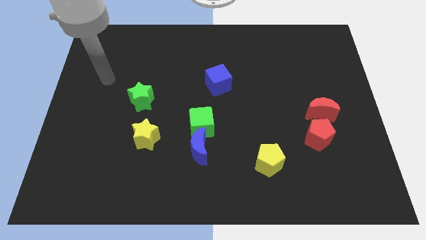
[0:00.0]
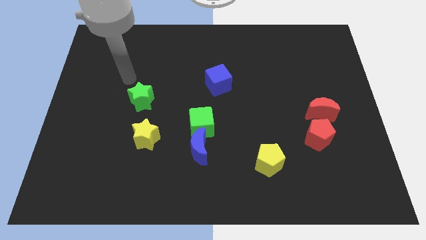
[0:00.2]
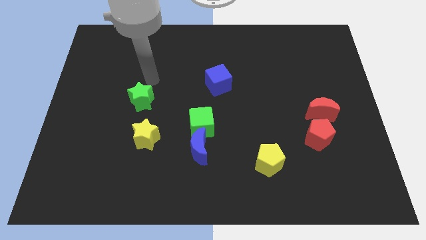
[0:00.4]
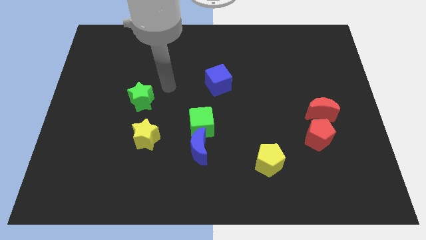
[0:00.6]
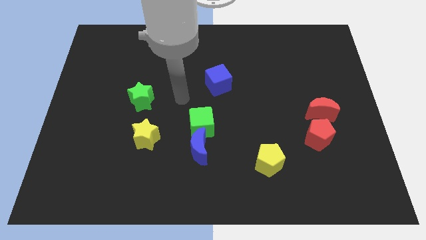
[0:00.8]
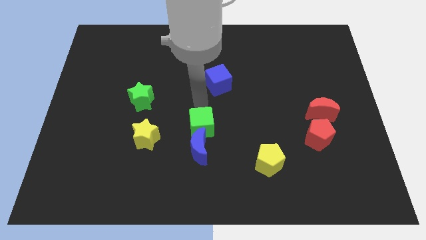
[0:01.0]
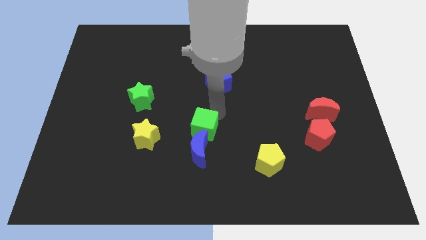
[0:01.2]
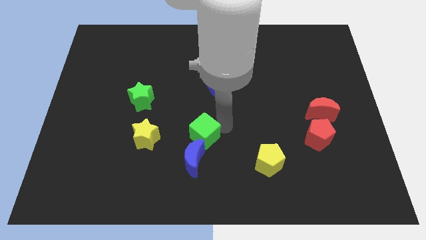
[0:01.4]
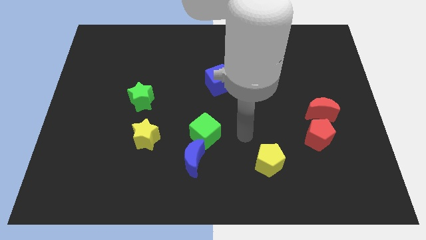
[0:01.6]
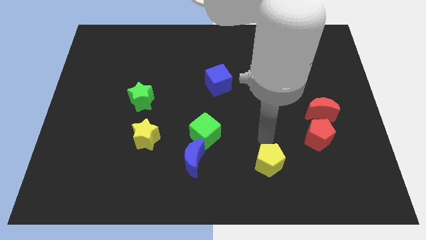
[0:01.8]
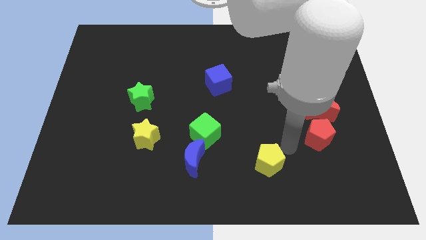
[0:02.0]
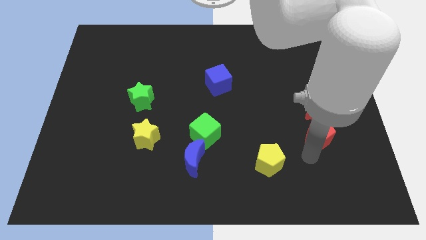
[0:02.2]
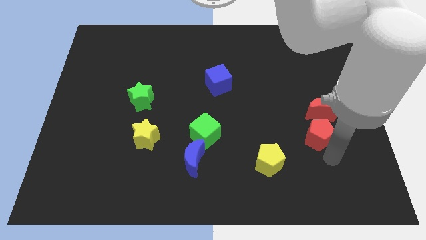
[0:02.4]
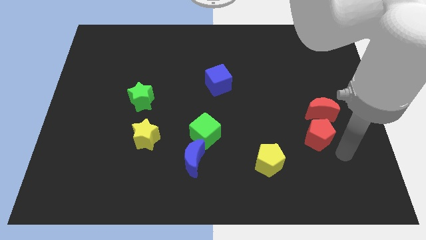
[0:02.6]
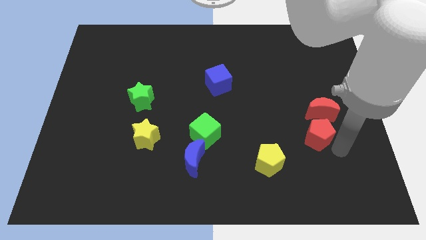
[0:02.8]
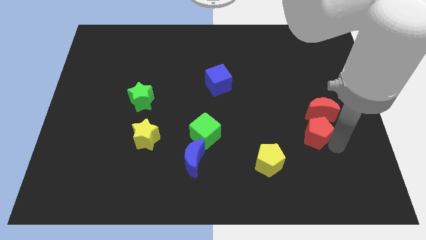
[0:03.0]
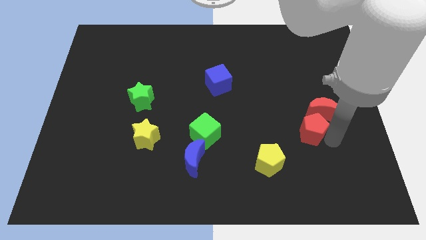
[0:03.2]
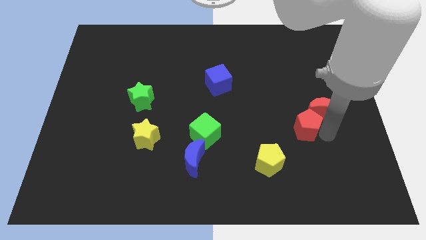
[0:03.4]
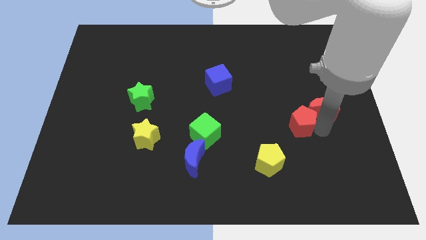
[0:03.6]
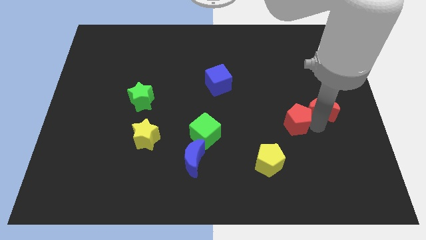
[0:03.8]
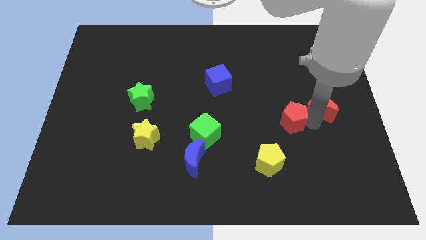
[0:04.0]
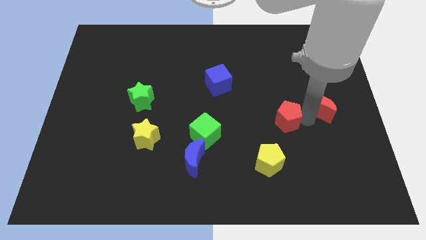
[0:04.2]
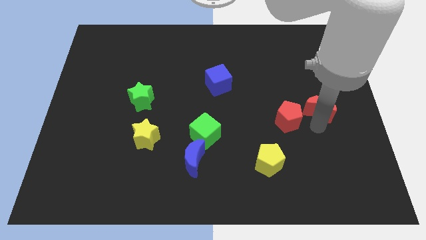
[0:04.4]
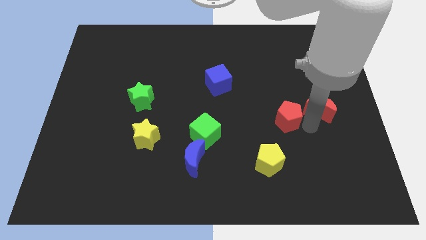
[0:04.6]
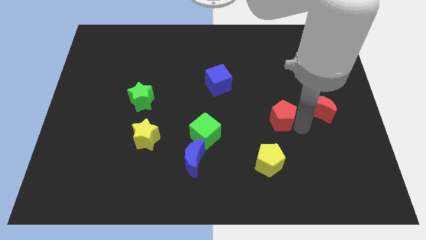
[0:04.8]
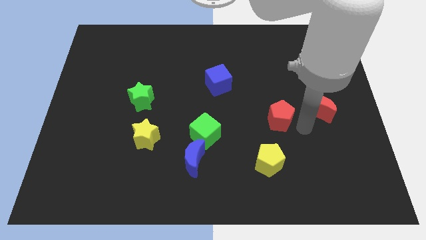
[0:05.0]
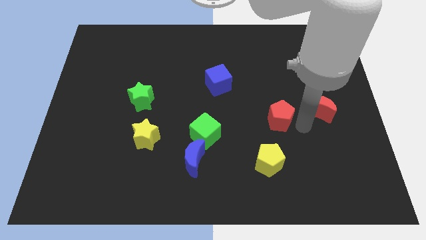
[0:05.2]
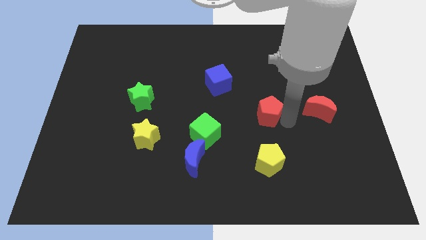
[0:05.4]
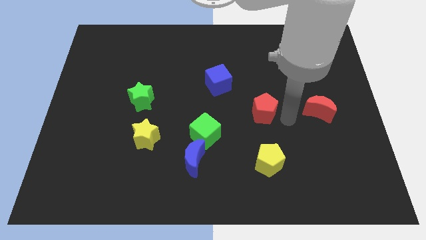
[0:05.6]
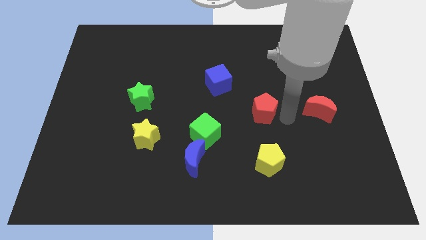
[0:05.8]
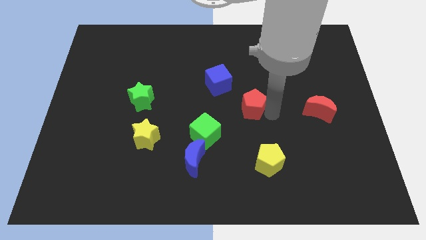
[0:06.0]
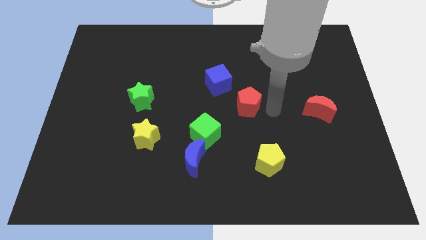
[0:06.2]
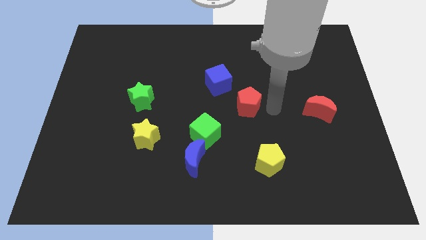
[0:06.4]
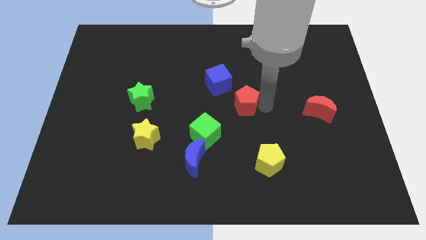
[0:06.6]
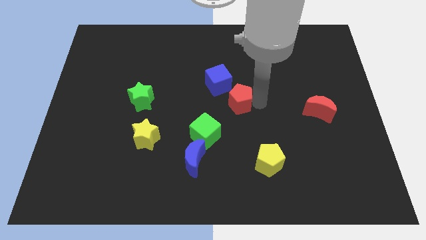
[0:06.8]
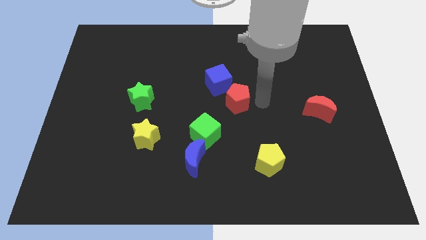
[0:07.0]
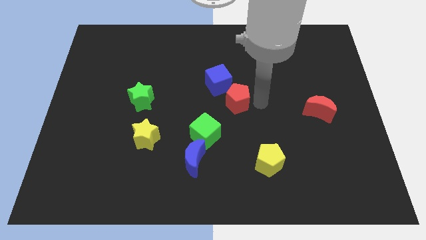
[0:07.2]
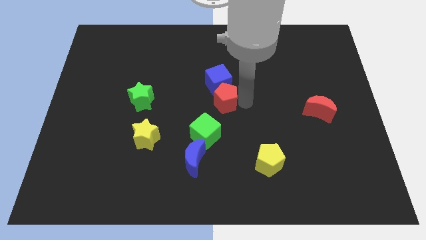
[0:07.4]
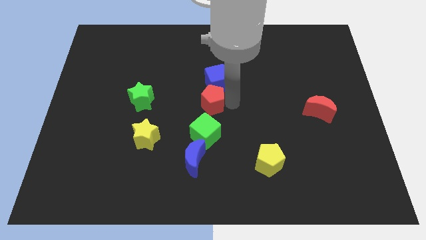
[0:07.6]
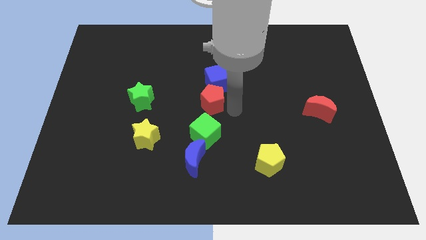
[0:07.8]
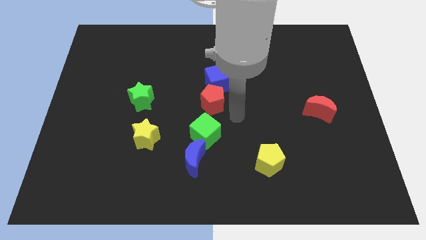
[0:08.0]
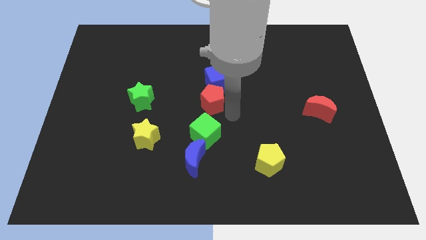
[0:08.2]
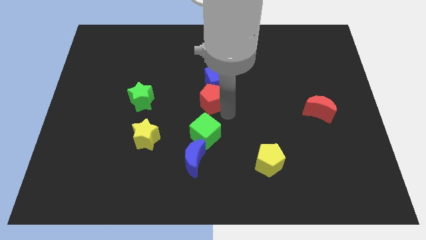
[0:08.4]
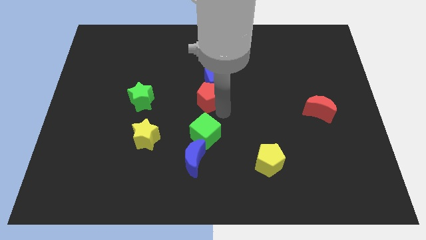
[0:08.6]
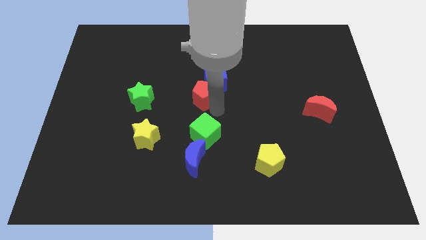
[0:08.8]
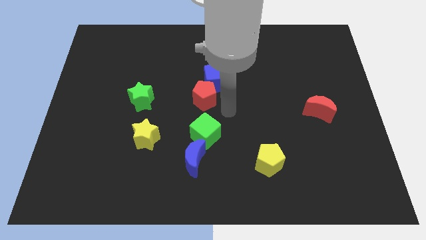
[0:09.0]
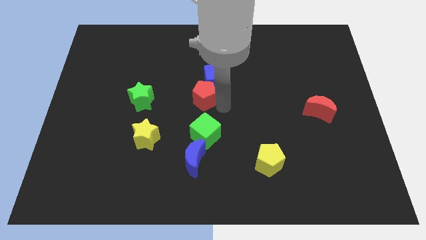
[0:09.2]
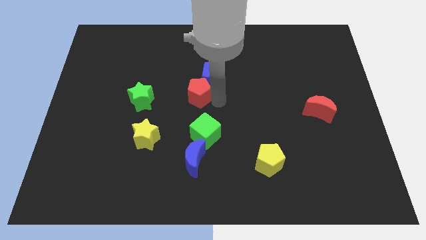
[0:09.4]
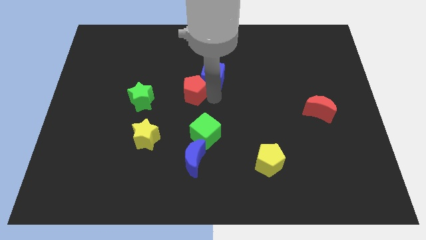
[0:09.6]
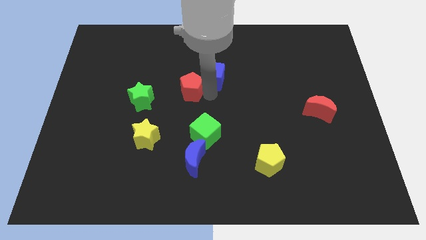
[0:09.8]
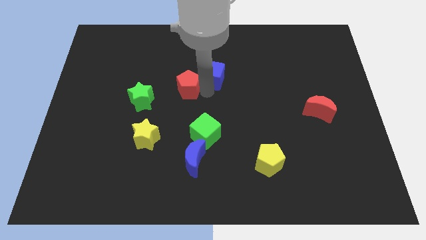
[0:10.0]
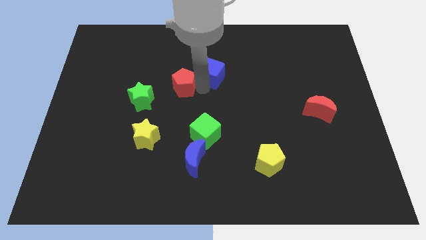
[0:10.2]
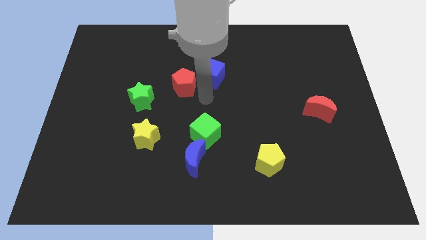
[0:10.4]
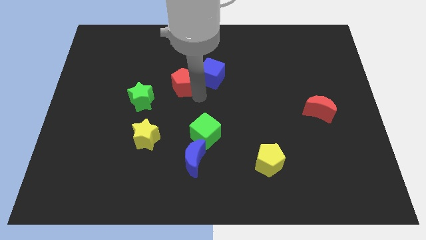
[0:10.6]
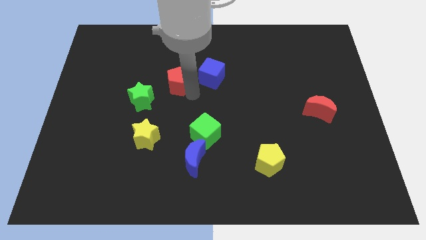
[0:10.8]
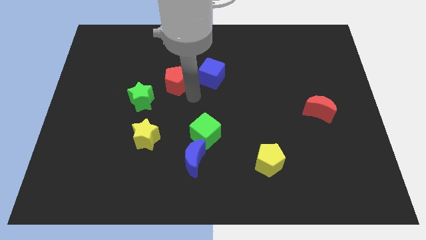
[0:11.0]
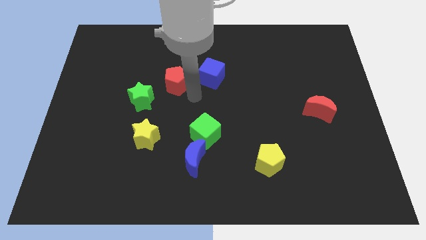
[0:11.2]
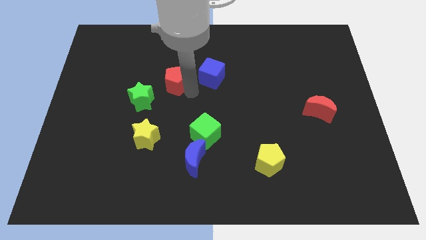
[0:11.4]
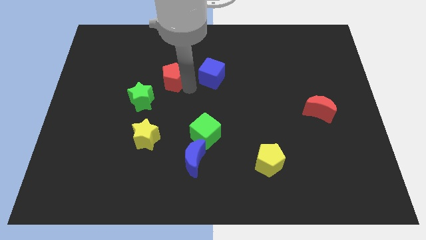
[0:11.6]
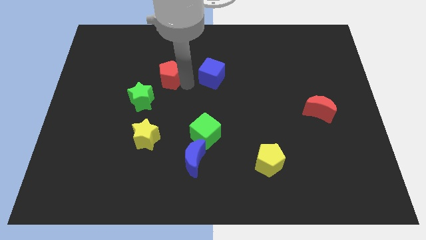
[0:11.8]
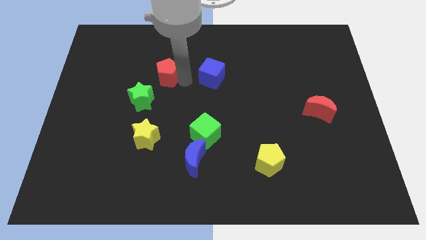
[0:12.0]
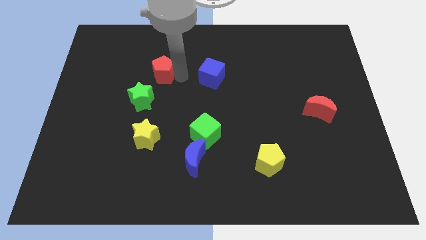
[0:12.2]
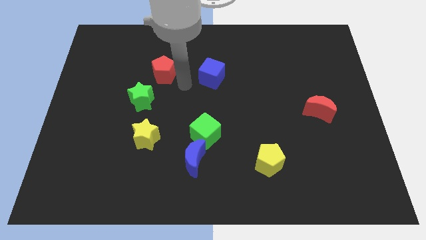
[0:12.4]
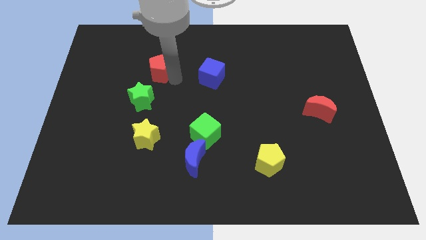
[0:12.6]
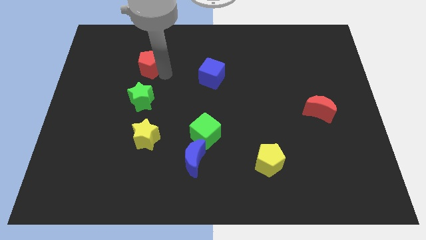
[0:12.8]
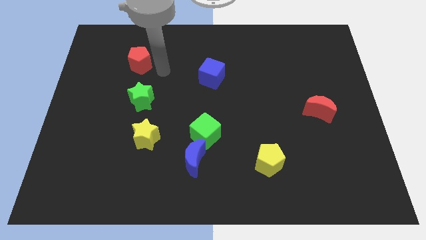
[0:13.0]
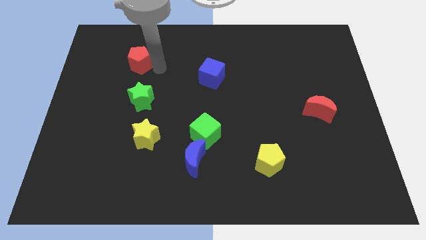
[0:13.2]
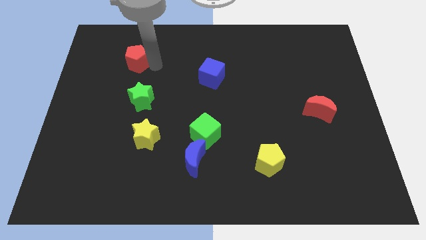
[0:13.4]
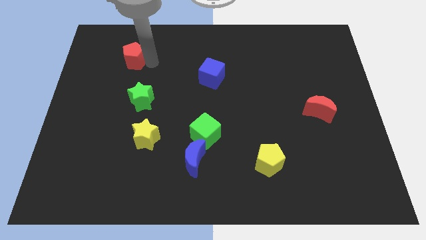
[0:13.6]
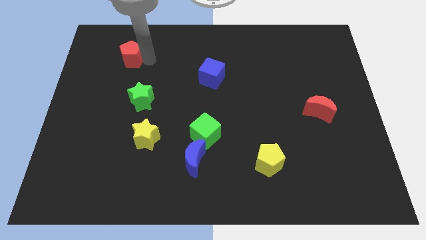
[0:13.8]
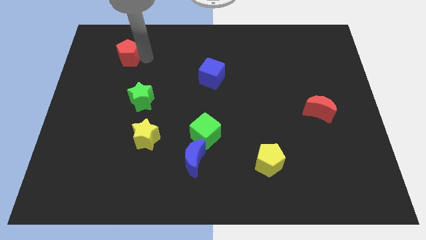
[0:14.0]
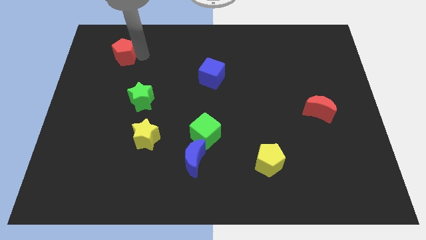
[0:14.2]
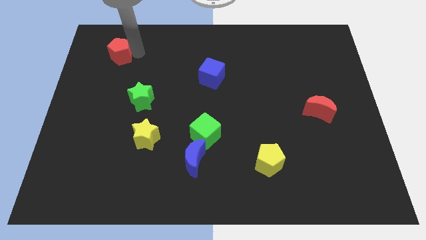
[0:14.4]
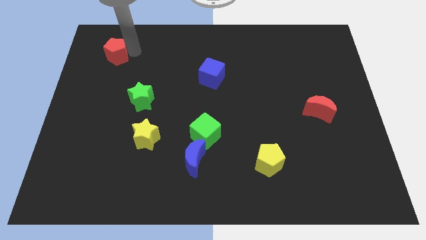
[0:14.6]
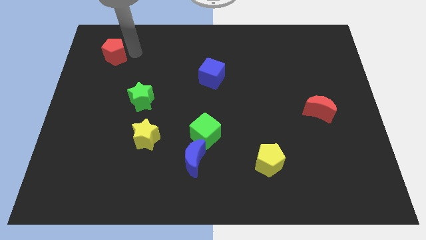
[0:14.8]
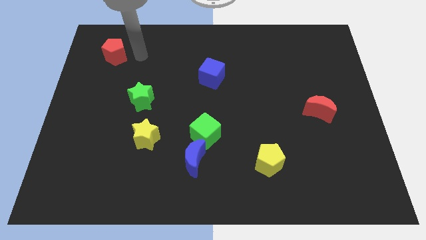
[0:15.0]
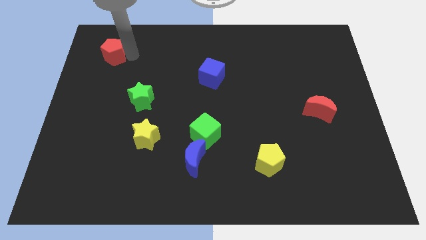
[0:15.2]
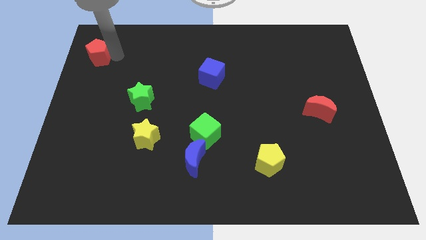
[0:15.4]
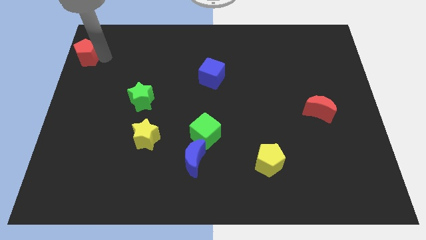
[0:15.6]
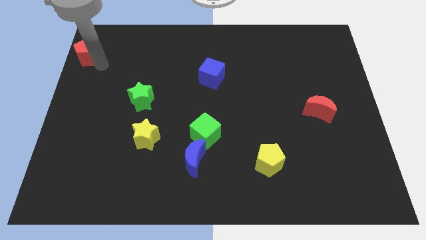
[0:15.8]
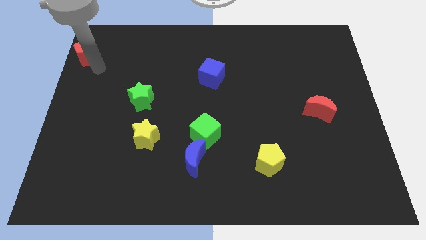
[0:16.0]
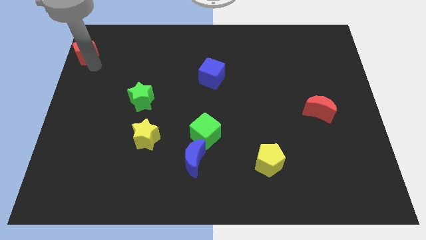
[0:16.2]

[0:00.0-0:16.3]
slide the red pentagon to the top left
